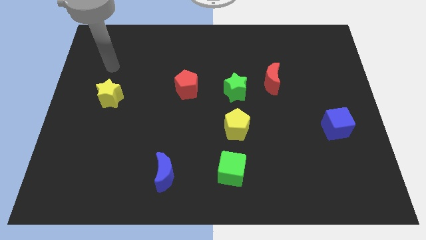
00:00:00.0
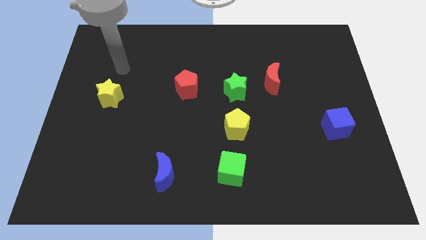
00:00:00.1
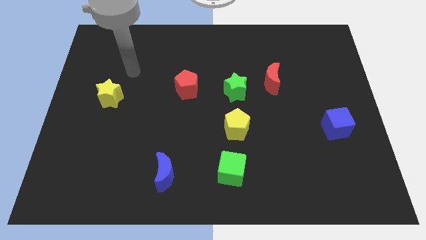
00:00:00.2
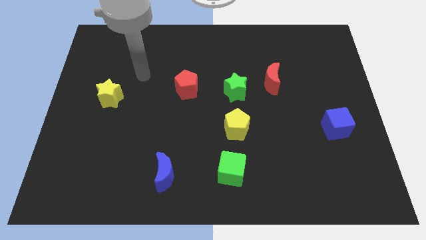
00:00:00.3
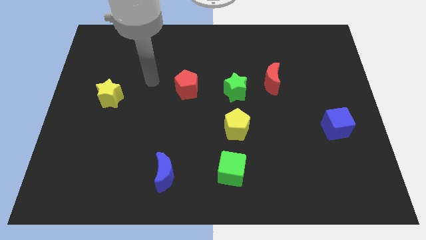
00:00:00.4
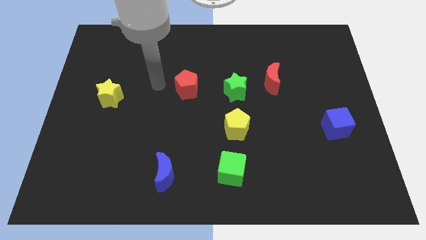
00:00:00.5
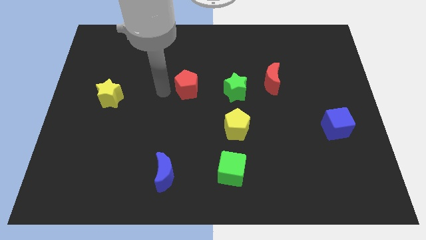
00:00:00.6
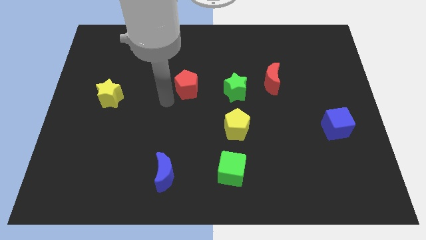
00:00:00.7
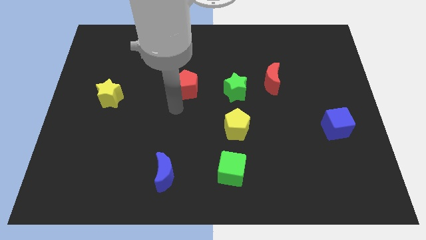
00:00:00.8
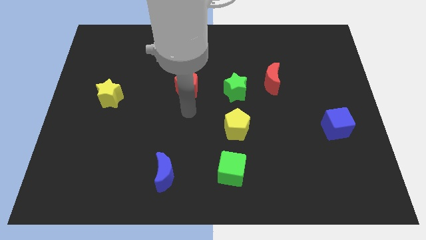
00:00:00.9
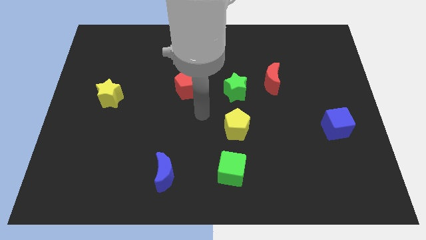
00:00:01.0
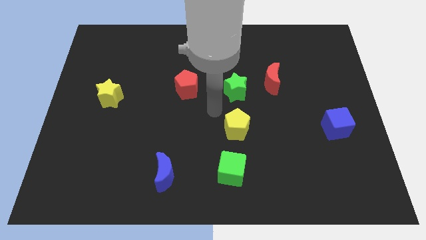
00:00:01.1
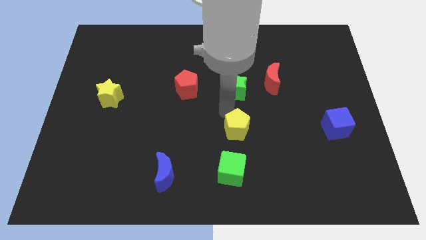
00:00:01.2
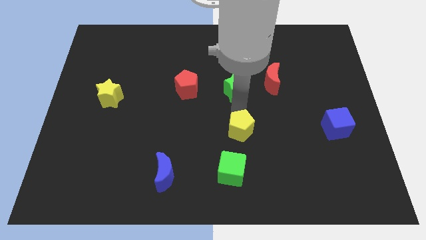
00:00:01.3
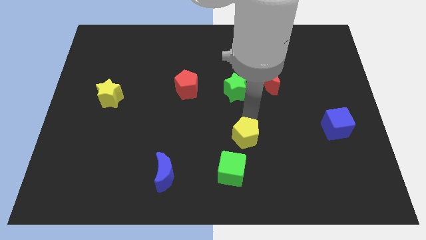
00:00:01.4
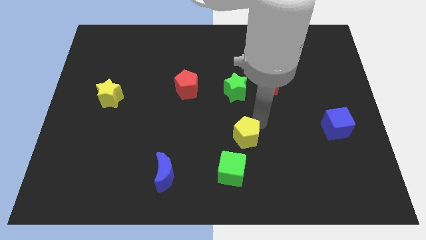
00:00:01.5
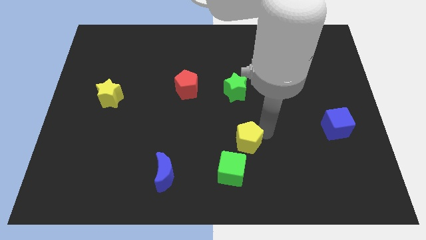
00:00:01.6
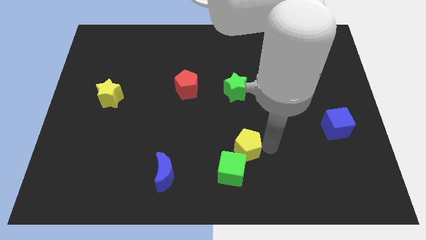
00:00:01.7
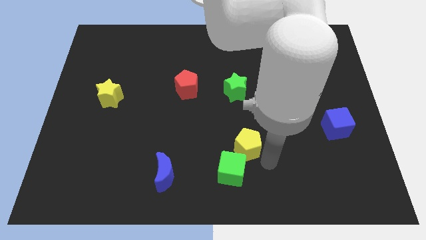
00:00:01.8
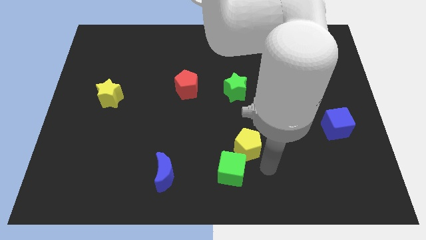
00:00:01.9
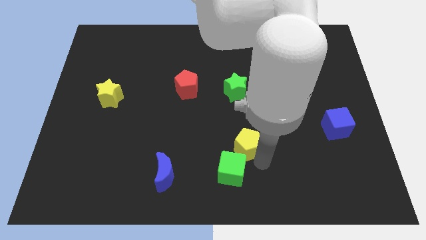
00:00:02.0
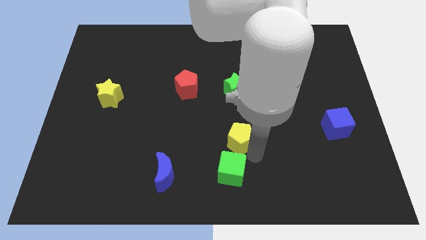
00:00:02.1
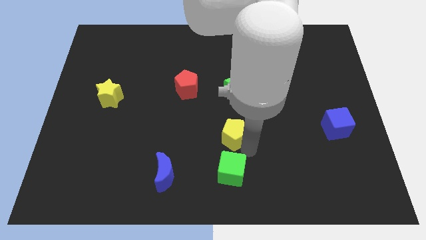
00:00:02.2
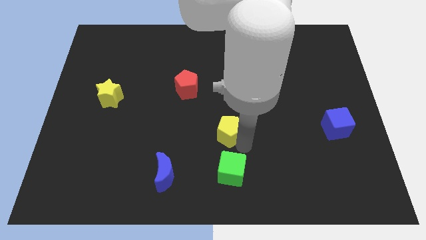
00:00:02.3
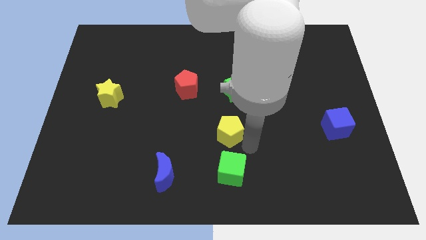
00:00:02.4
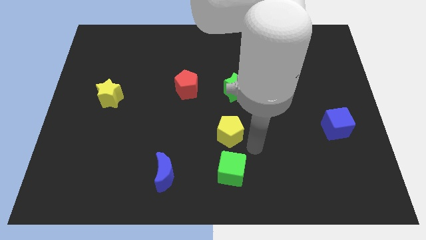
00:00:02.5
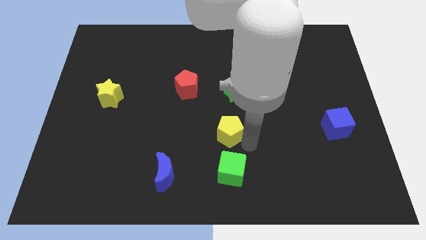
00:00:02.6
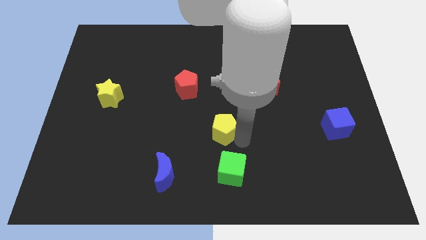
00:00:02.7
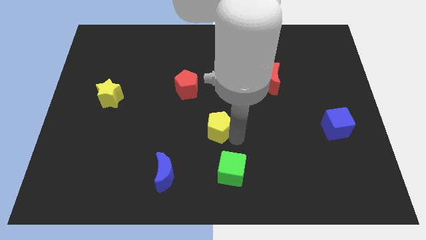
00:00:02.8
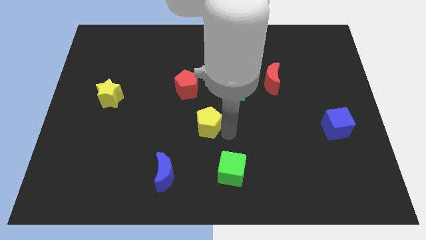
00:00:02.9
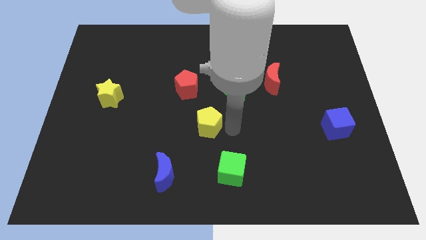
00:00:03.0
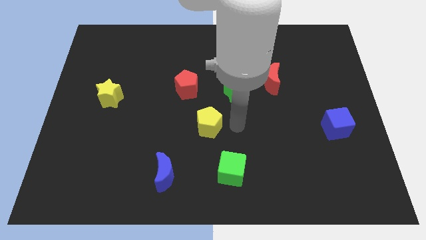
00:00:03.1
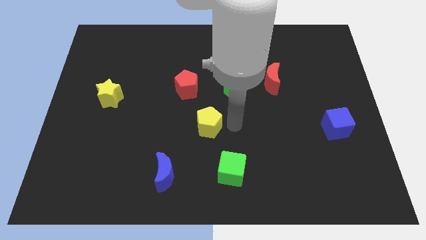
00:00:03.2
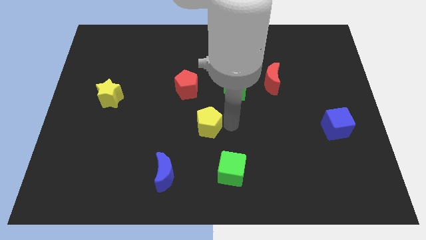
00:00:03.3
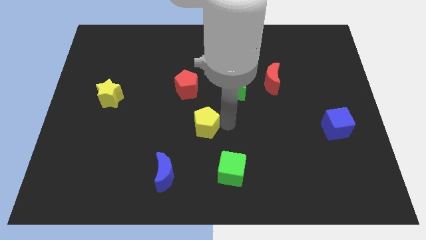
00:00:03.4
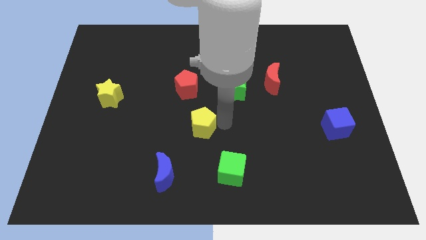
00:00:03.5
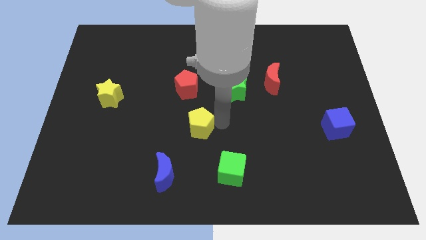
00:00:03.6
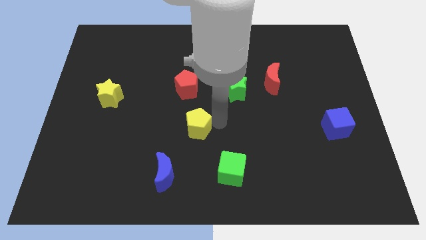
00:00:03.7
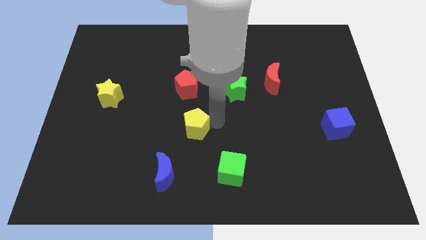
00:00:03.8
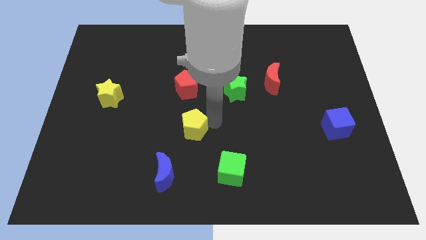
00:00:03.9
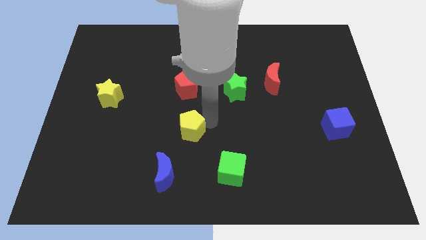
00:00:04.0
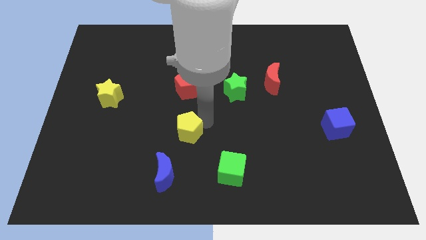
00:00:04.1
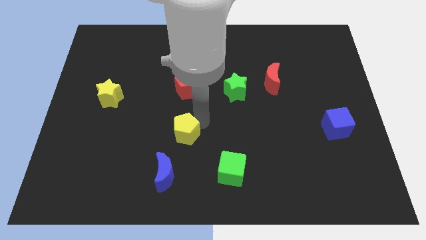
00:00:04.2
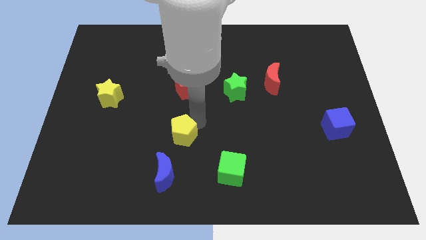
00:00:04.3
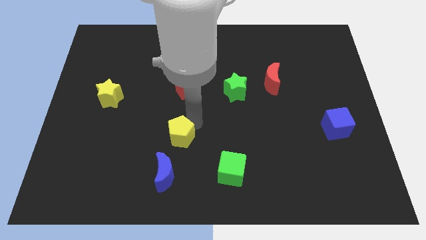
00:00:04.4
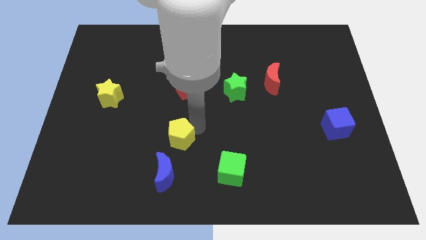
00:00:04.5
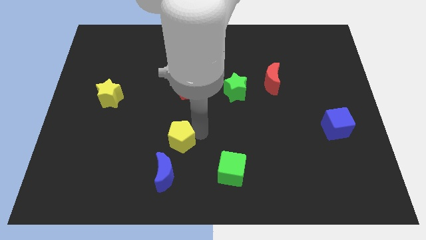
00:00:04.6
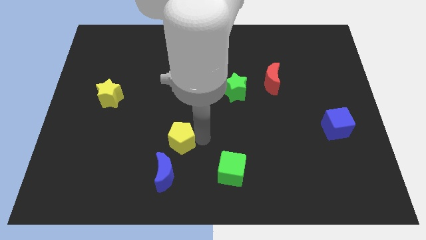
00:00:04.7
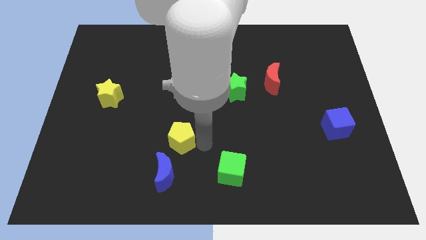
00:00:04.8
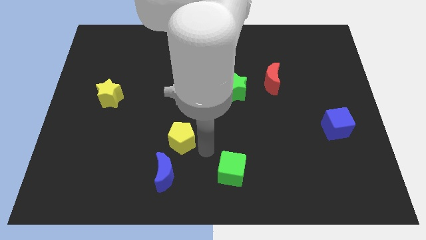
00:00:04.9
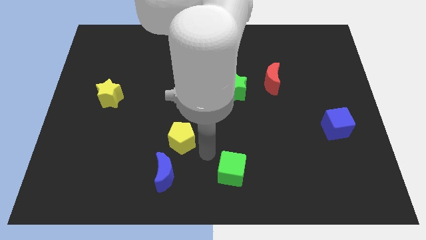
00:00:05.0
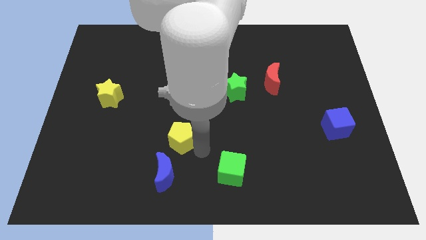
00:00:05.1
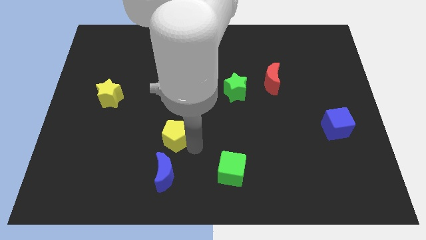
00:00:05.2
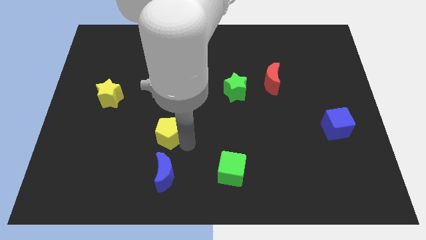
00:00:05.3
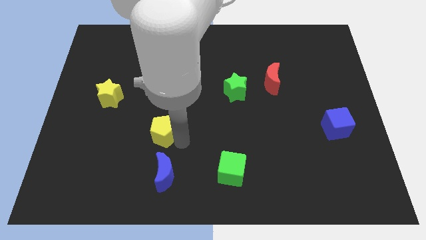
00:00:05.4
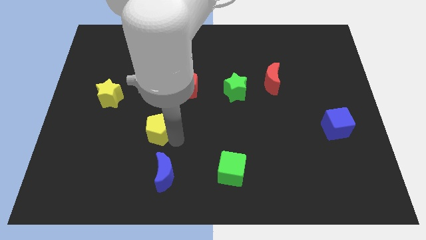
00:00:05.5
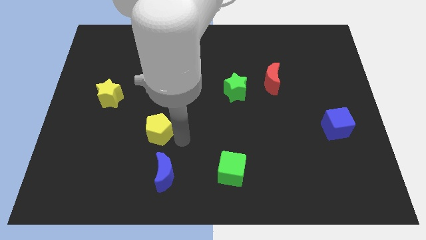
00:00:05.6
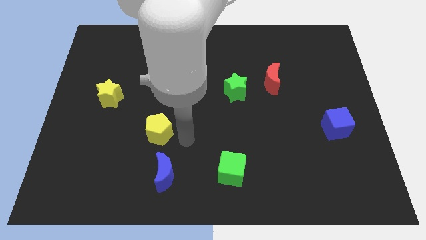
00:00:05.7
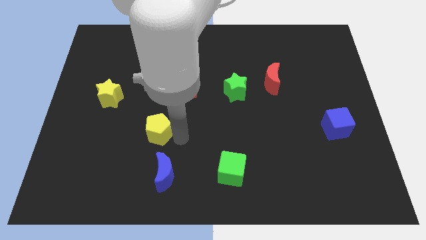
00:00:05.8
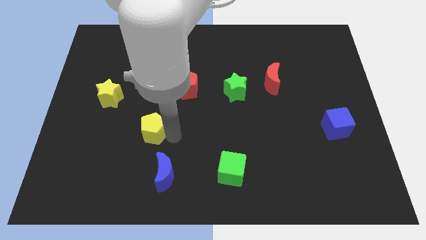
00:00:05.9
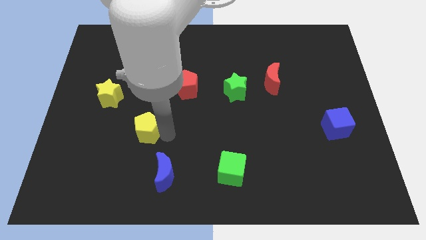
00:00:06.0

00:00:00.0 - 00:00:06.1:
slide the yellow pentagon left

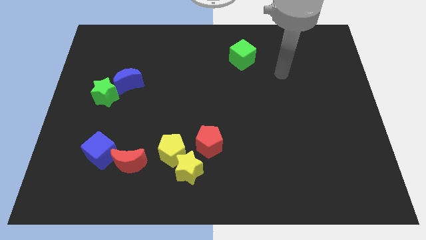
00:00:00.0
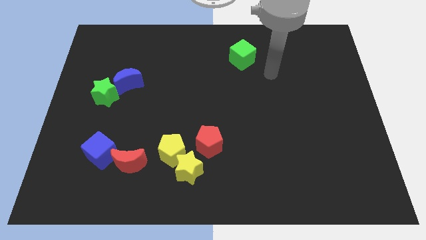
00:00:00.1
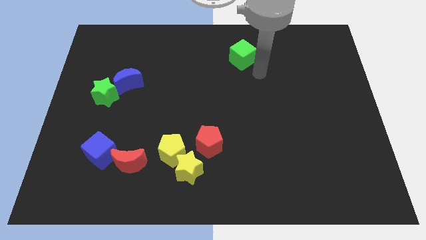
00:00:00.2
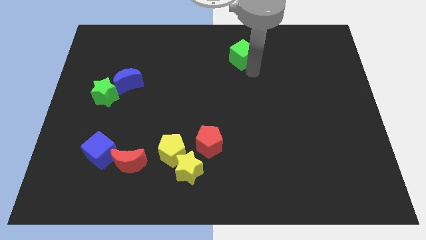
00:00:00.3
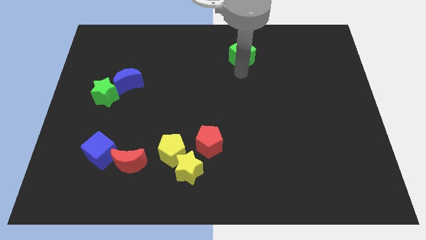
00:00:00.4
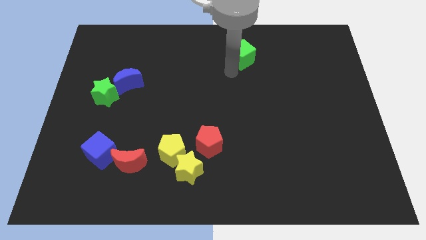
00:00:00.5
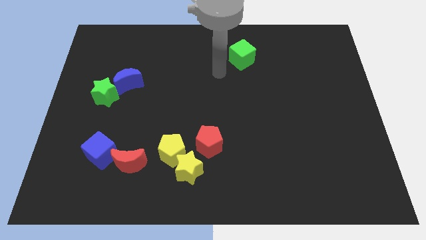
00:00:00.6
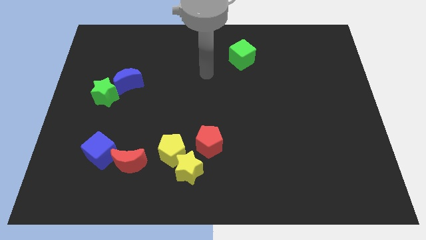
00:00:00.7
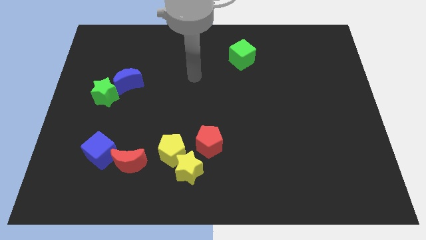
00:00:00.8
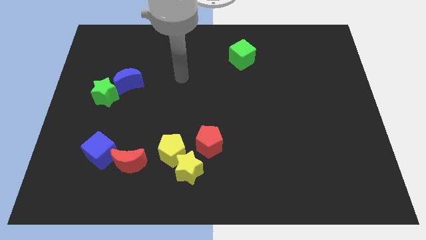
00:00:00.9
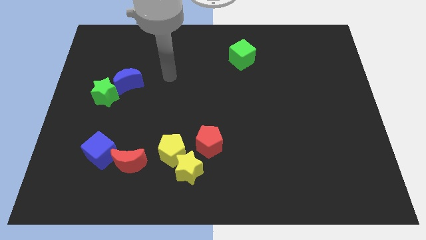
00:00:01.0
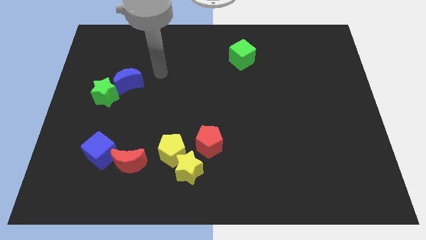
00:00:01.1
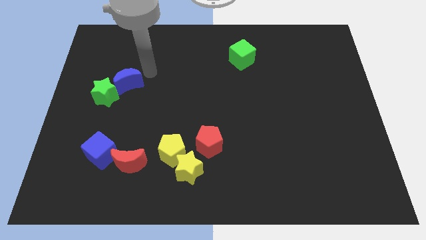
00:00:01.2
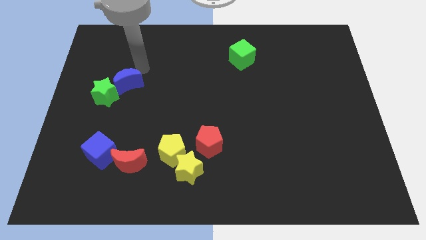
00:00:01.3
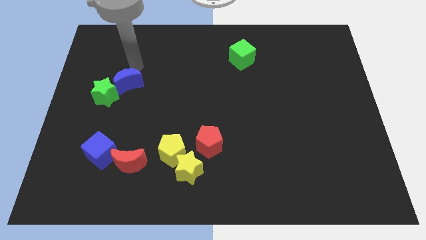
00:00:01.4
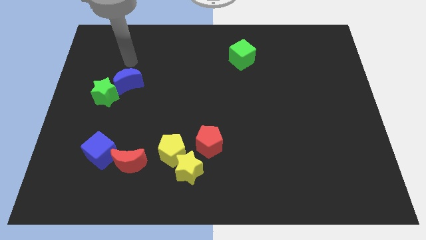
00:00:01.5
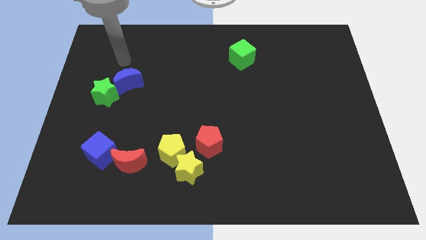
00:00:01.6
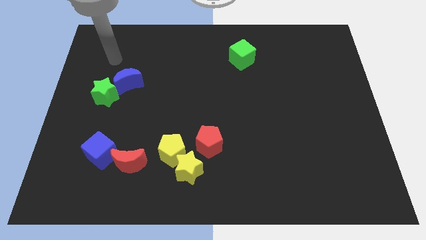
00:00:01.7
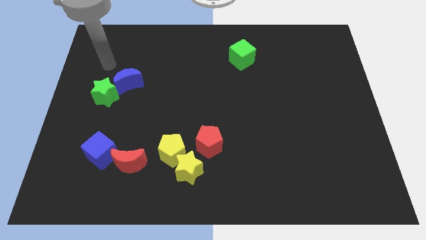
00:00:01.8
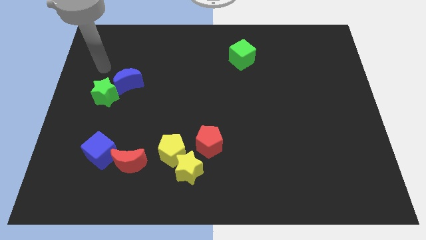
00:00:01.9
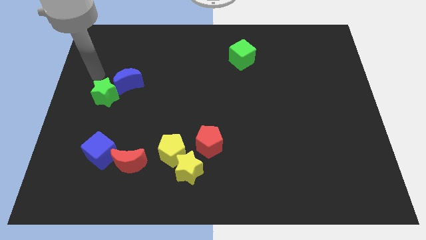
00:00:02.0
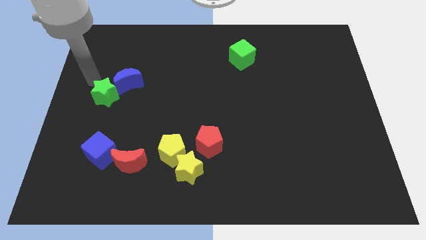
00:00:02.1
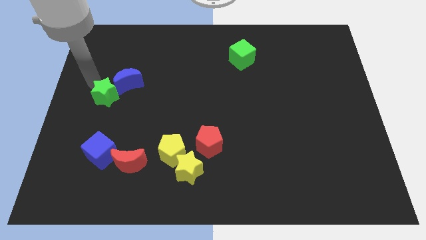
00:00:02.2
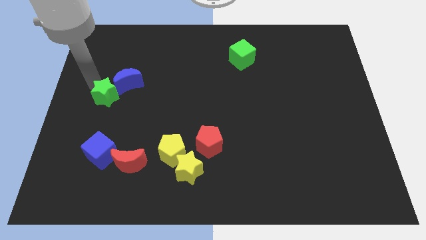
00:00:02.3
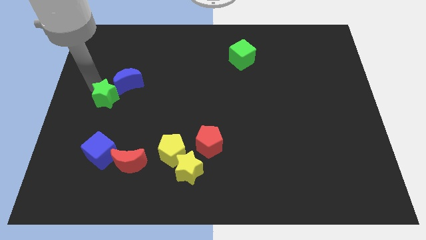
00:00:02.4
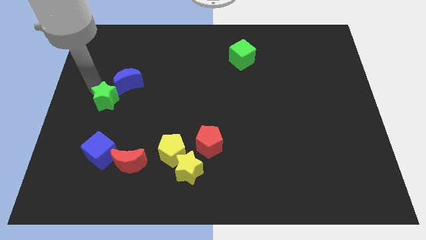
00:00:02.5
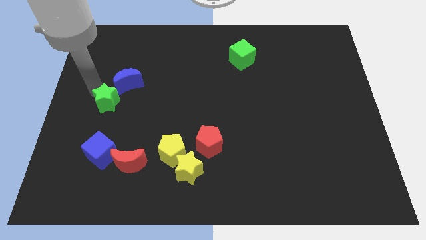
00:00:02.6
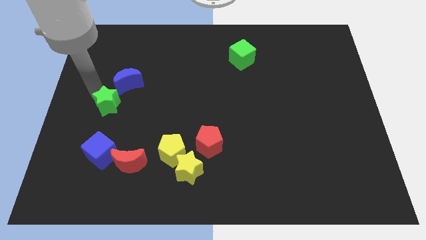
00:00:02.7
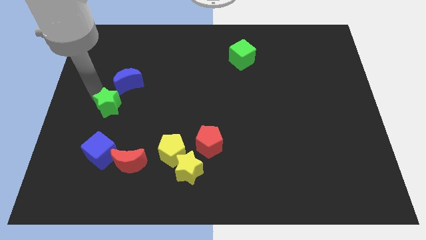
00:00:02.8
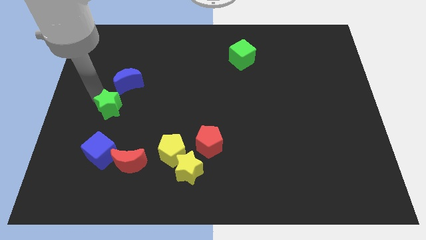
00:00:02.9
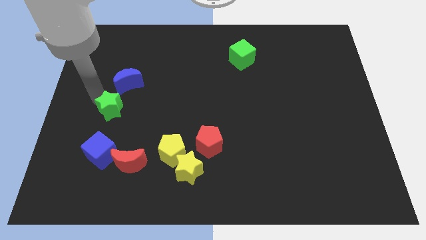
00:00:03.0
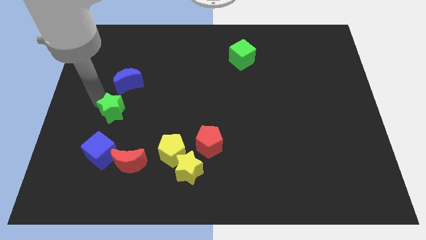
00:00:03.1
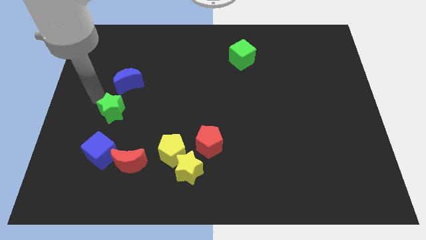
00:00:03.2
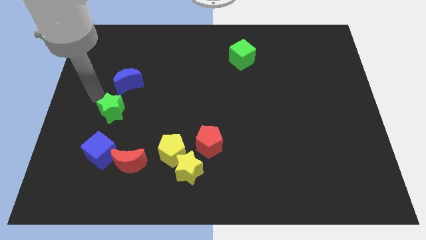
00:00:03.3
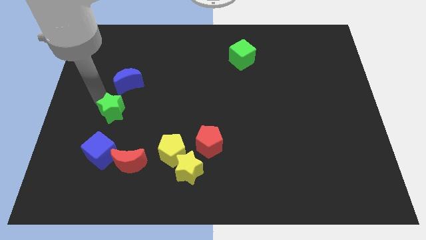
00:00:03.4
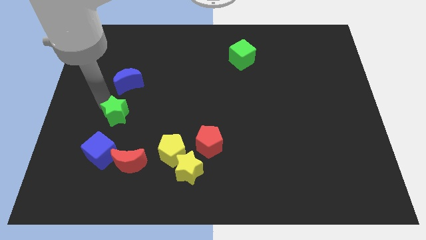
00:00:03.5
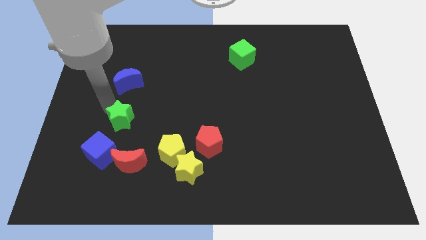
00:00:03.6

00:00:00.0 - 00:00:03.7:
move the green star down and then to the right somewhat
